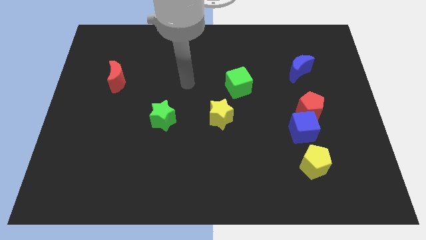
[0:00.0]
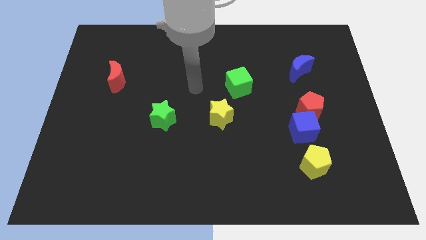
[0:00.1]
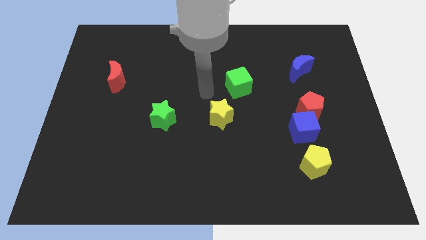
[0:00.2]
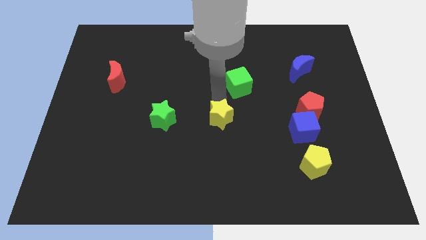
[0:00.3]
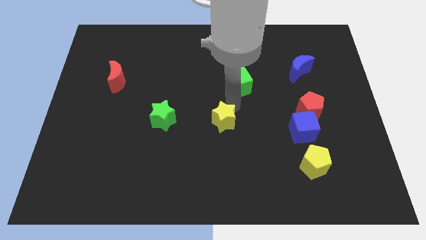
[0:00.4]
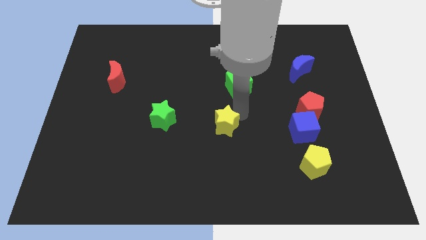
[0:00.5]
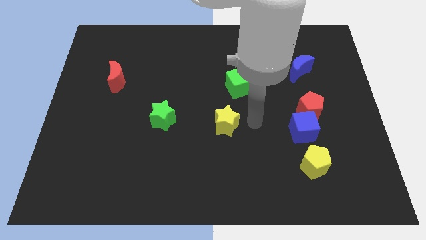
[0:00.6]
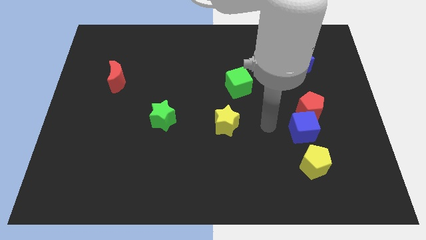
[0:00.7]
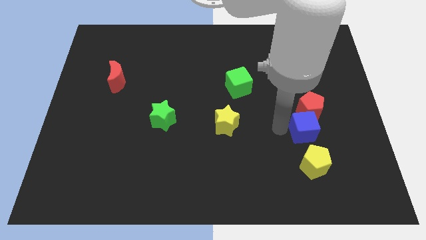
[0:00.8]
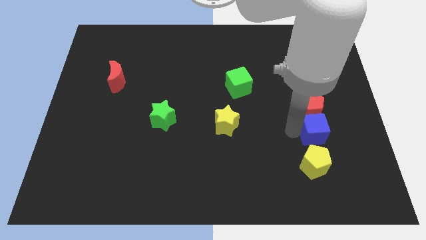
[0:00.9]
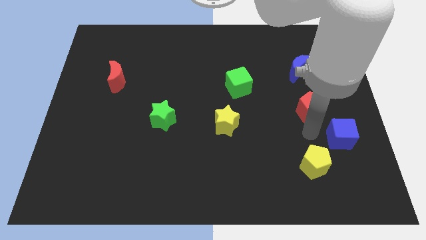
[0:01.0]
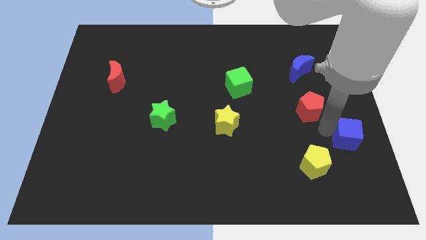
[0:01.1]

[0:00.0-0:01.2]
move the red pentagon away from the blue cube

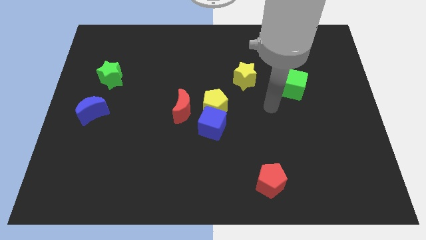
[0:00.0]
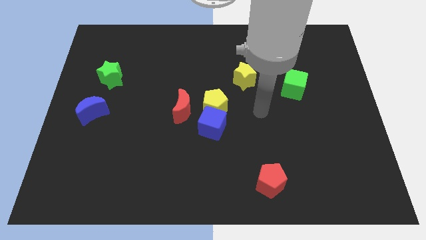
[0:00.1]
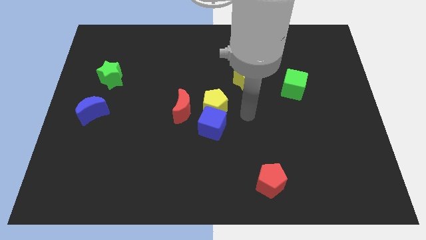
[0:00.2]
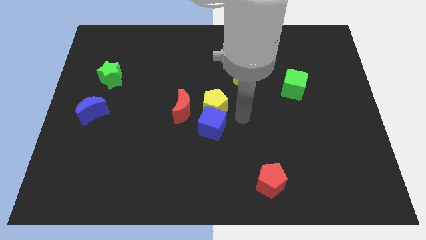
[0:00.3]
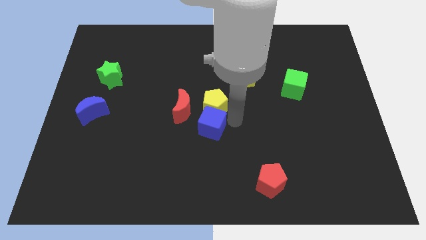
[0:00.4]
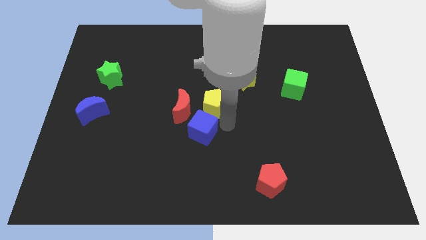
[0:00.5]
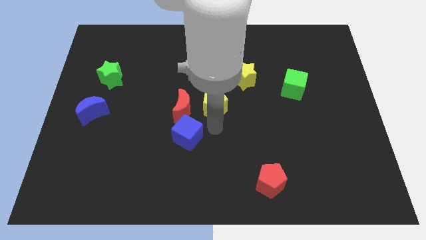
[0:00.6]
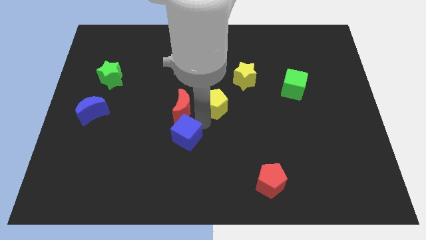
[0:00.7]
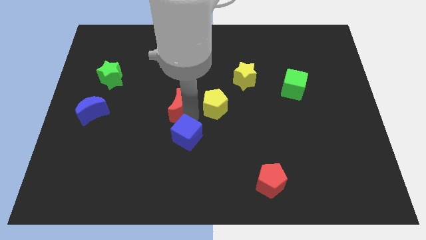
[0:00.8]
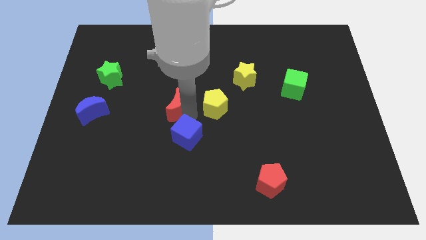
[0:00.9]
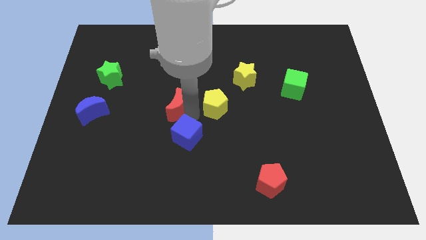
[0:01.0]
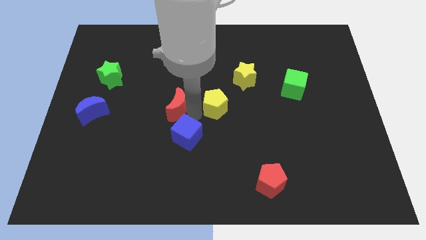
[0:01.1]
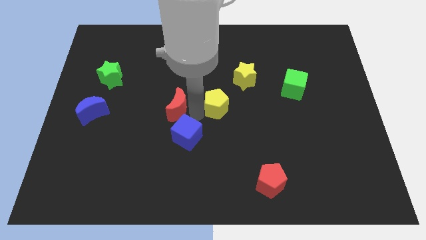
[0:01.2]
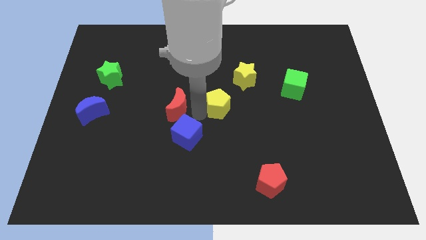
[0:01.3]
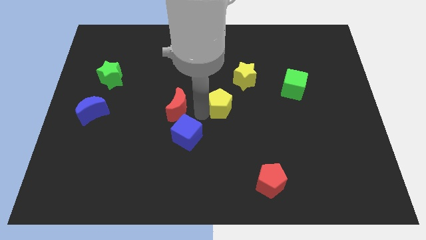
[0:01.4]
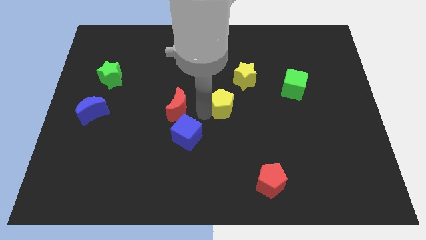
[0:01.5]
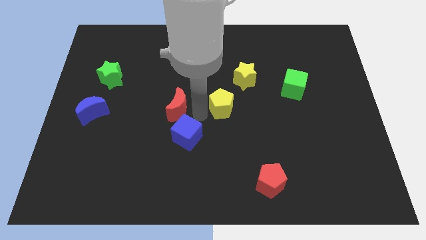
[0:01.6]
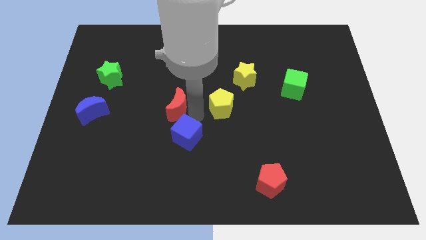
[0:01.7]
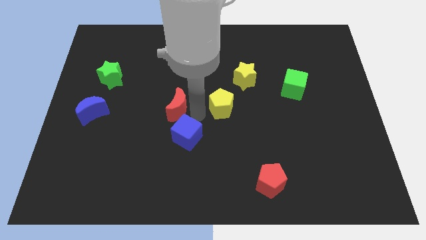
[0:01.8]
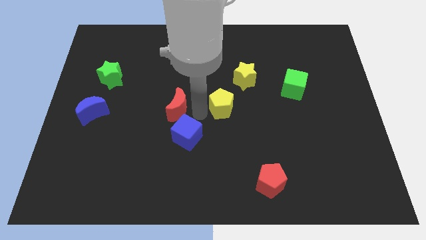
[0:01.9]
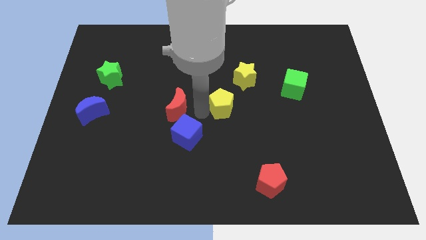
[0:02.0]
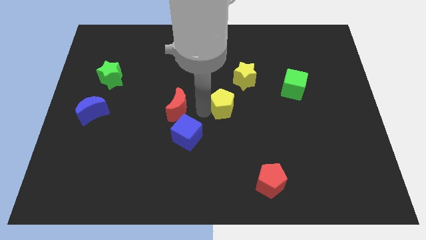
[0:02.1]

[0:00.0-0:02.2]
pull the yellow pentagon apart from the blue cube and red moon

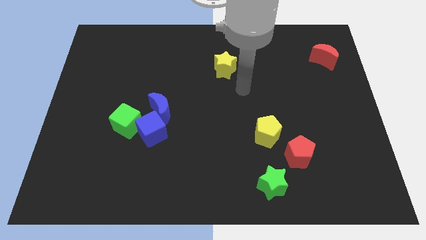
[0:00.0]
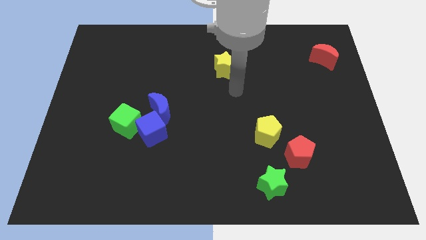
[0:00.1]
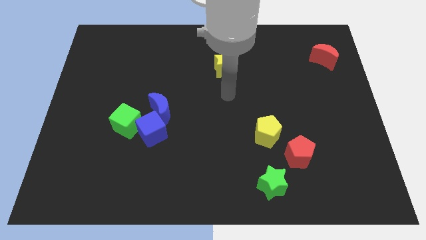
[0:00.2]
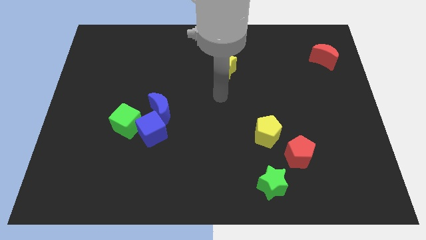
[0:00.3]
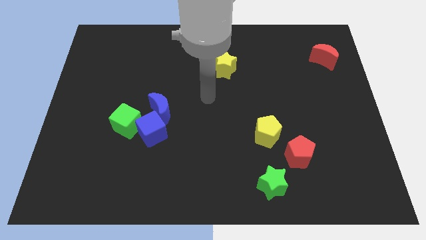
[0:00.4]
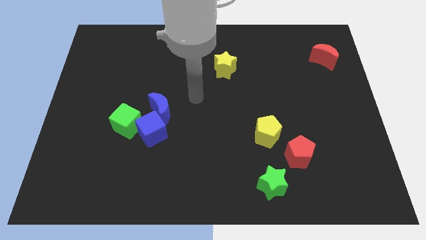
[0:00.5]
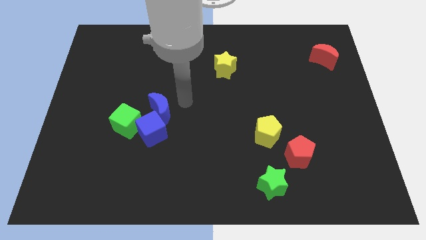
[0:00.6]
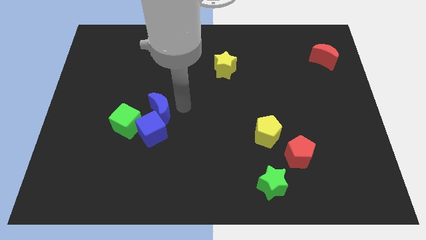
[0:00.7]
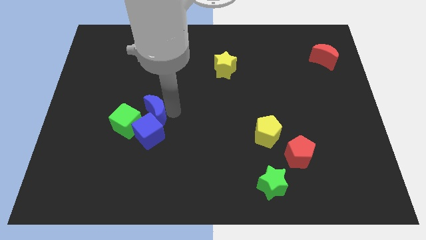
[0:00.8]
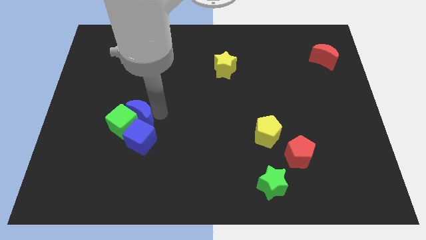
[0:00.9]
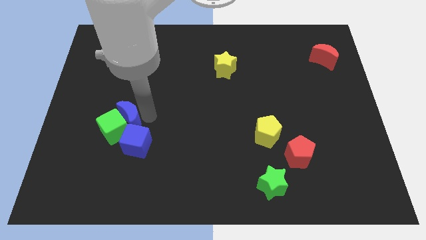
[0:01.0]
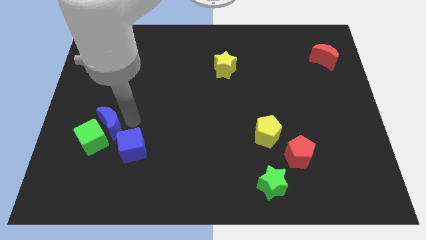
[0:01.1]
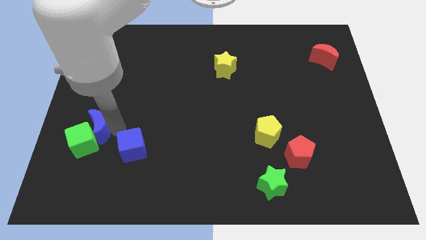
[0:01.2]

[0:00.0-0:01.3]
pull the blue cube apart from the blue moon and green cube

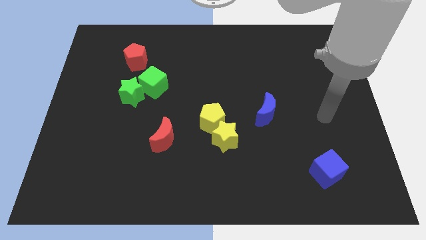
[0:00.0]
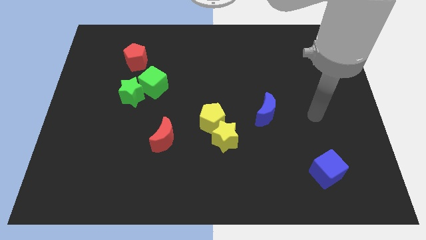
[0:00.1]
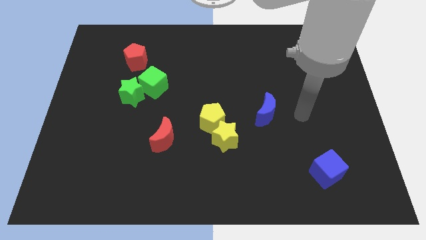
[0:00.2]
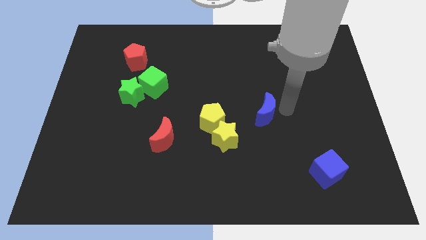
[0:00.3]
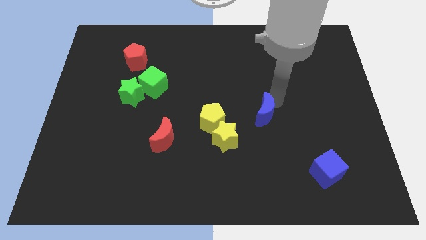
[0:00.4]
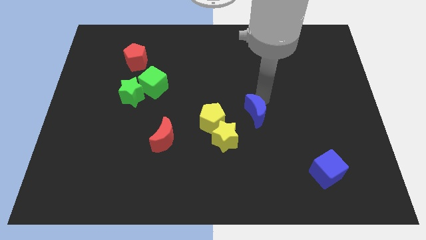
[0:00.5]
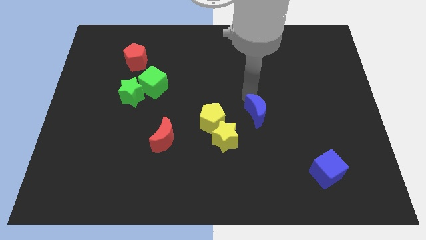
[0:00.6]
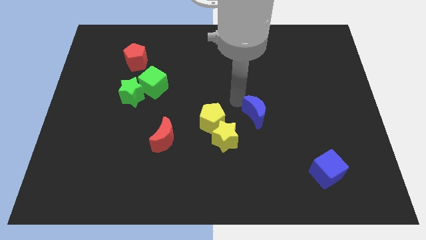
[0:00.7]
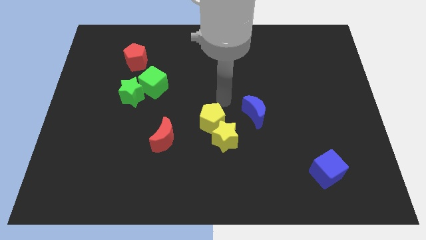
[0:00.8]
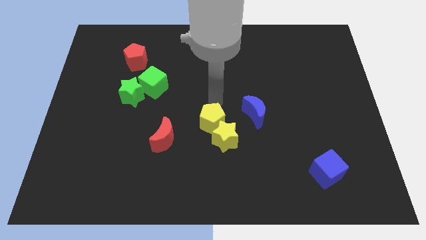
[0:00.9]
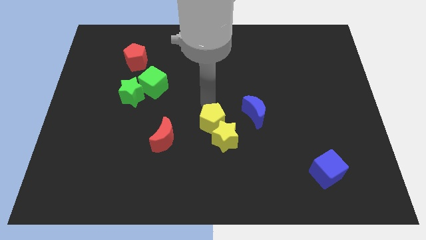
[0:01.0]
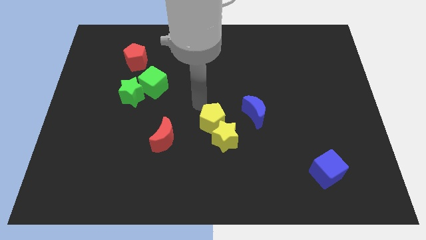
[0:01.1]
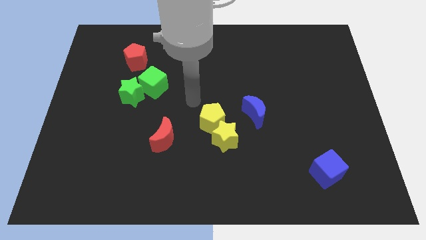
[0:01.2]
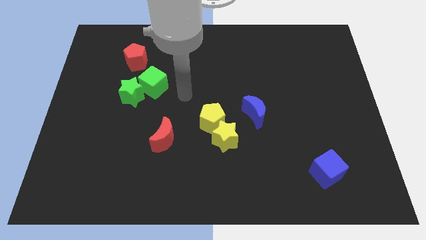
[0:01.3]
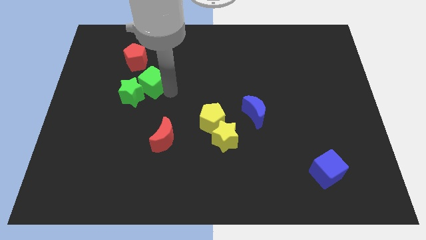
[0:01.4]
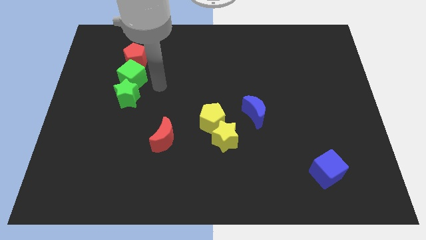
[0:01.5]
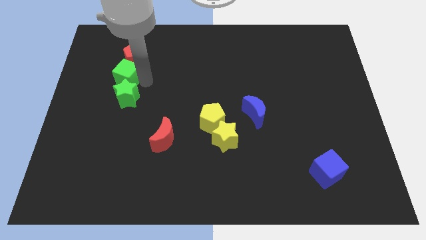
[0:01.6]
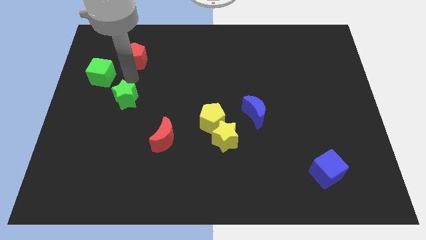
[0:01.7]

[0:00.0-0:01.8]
pull the green star apart from the green cube

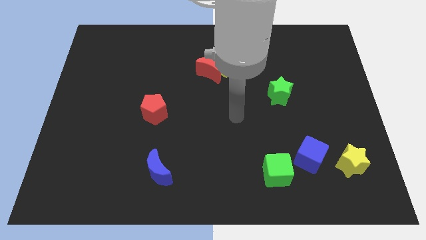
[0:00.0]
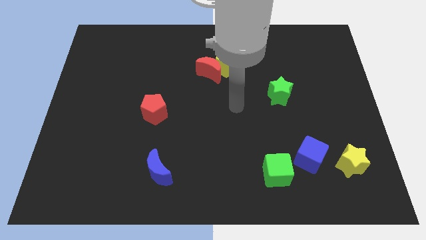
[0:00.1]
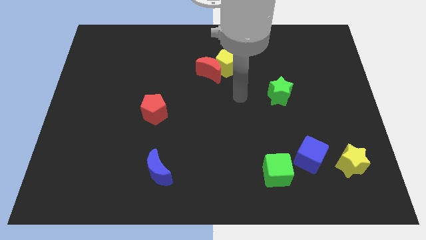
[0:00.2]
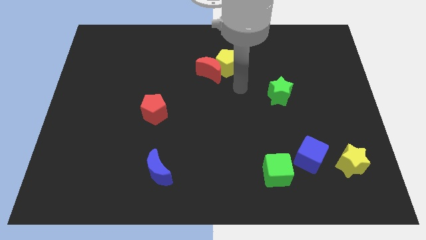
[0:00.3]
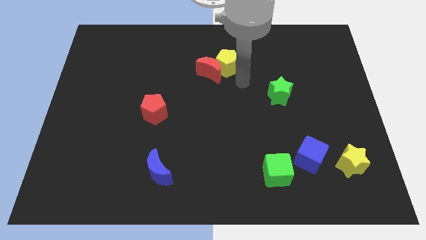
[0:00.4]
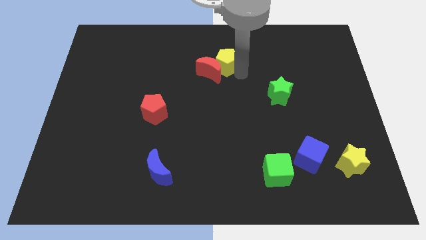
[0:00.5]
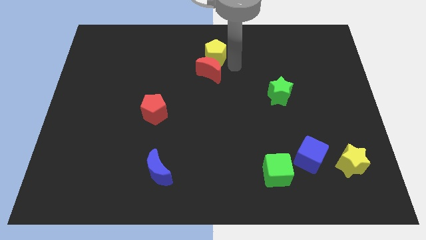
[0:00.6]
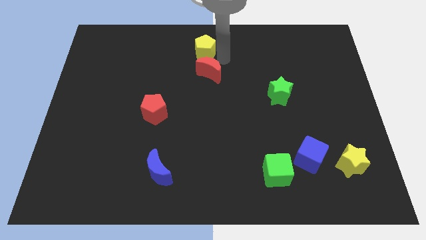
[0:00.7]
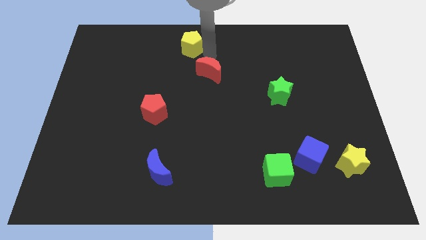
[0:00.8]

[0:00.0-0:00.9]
move the red moon away from the yellow pentagon

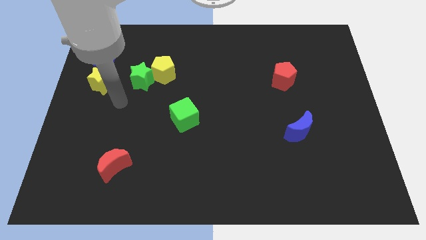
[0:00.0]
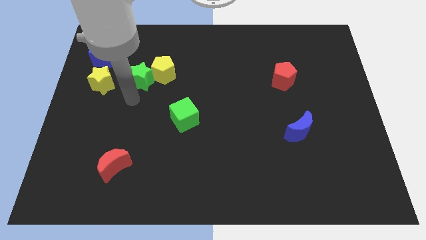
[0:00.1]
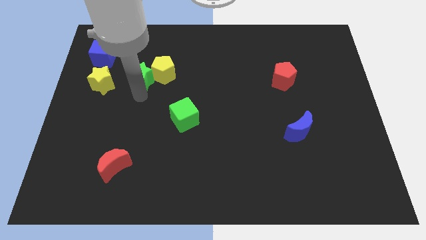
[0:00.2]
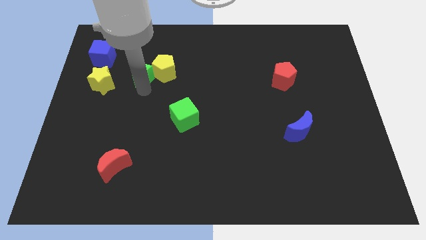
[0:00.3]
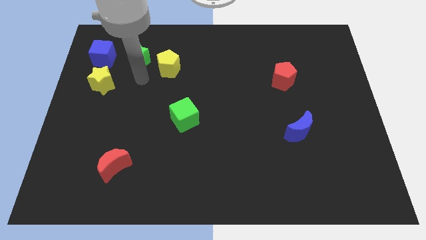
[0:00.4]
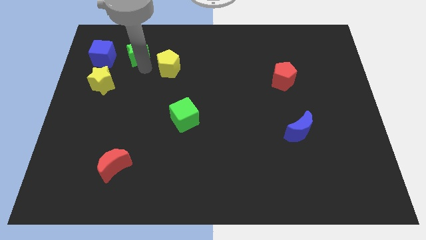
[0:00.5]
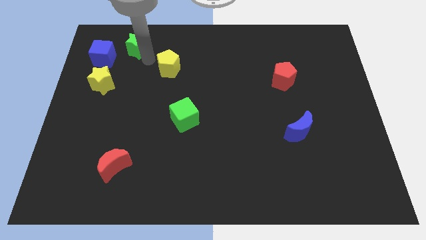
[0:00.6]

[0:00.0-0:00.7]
pull the yellow pentagon apart from the green star

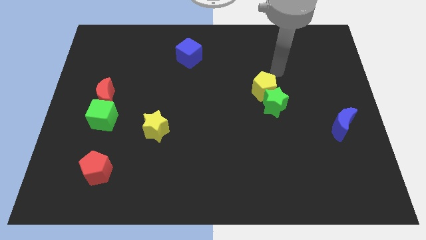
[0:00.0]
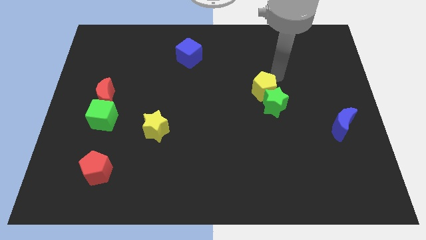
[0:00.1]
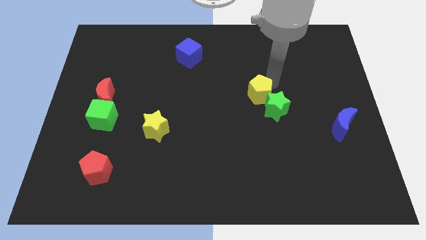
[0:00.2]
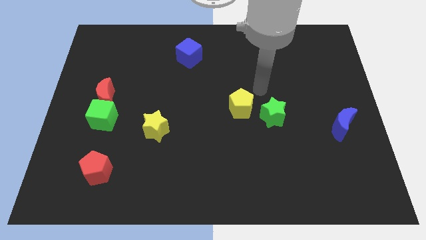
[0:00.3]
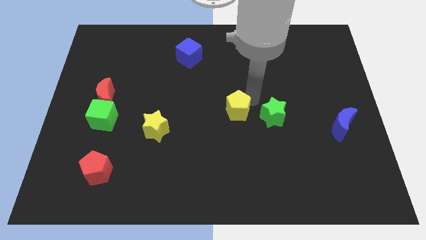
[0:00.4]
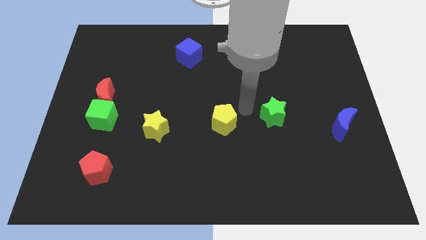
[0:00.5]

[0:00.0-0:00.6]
move the green star away from the yellow pentagon

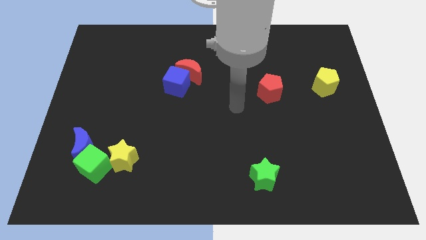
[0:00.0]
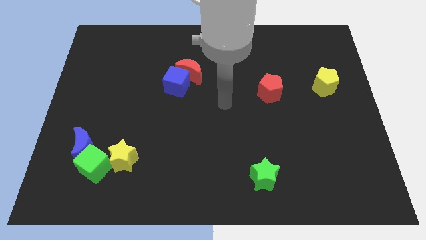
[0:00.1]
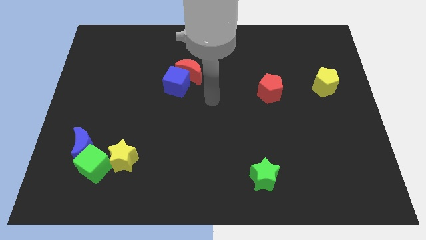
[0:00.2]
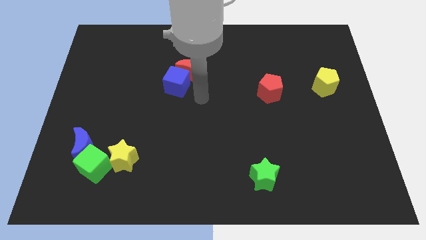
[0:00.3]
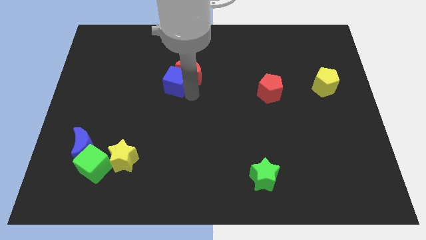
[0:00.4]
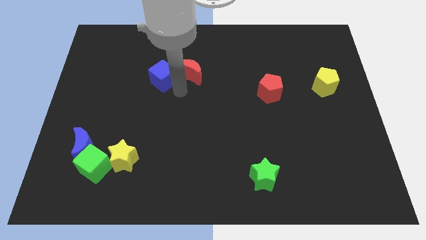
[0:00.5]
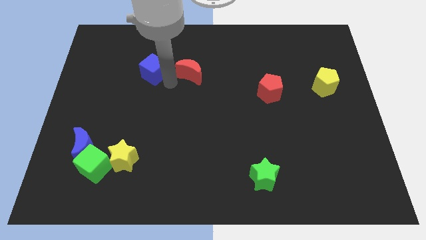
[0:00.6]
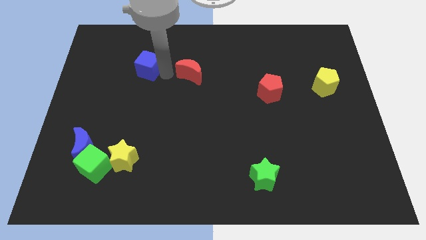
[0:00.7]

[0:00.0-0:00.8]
pull the red moon apart from the blue cube
